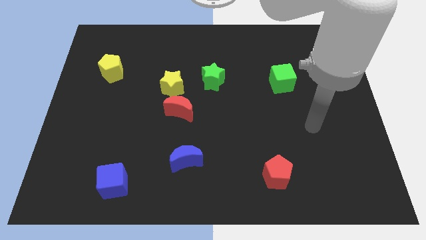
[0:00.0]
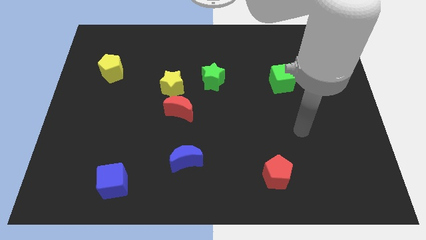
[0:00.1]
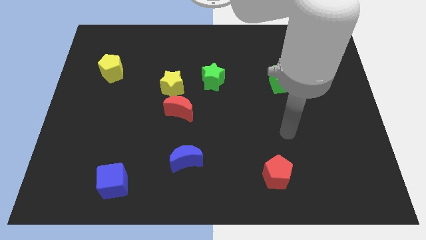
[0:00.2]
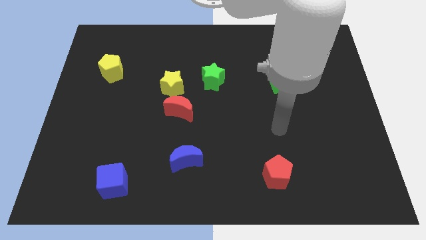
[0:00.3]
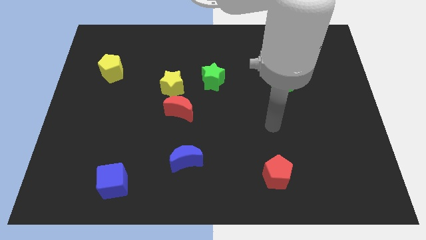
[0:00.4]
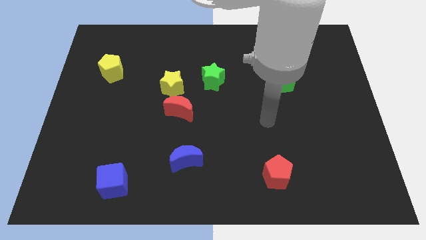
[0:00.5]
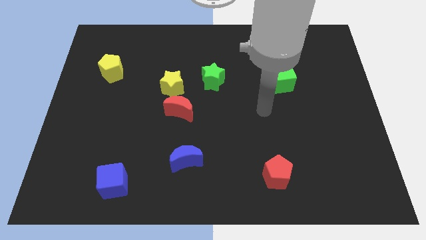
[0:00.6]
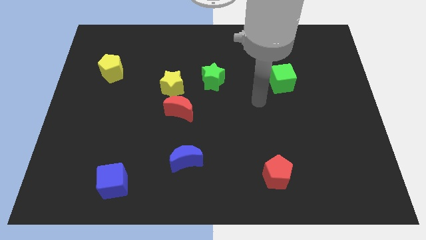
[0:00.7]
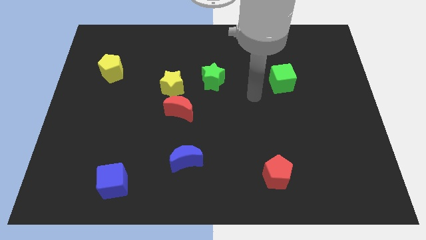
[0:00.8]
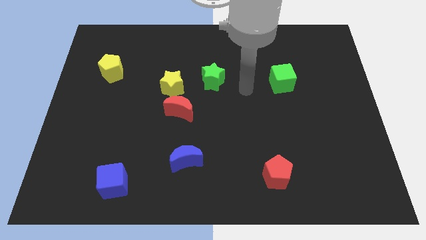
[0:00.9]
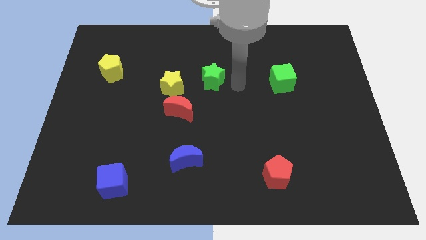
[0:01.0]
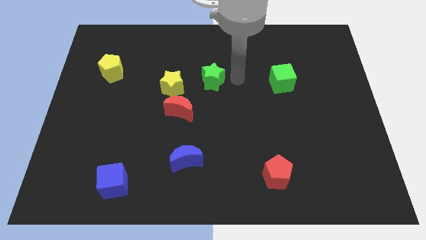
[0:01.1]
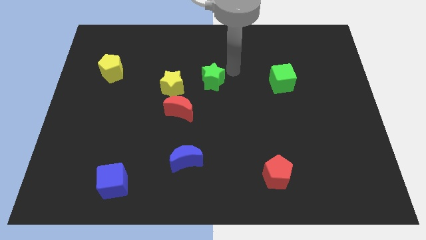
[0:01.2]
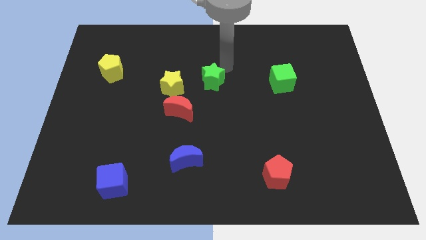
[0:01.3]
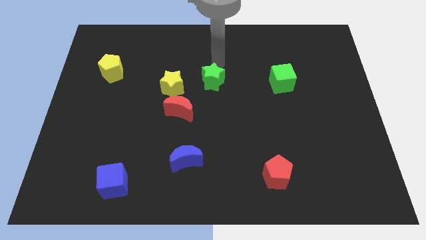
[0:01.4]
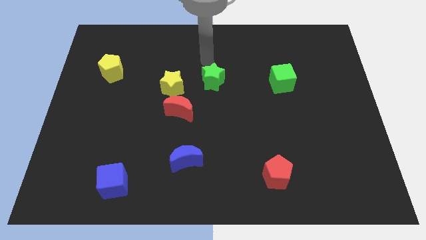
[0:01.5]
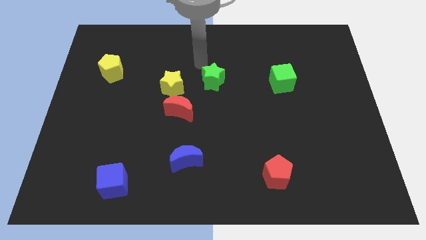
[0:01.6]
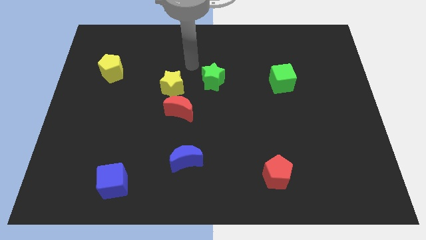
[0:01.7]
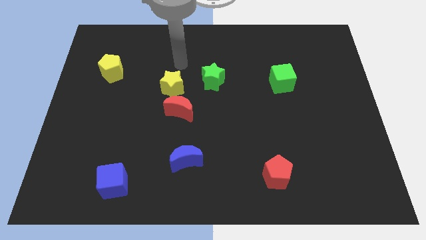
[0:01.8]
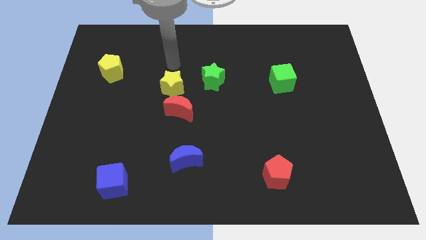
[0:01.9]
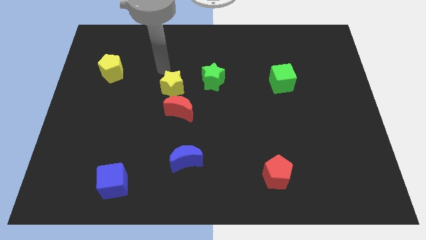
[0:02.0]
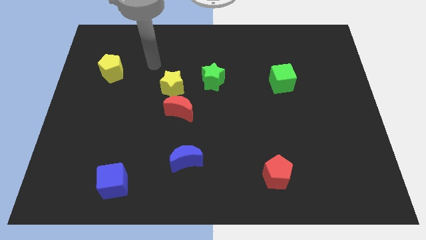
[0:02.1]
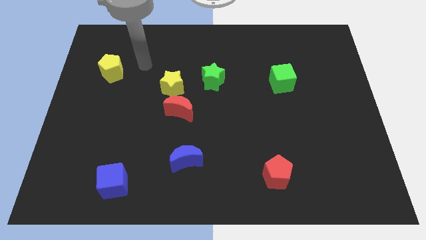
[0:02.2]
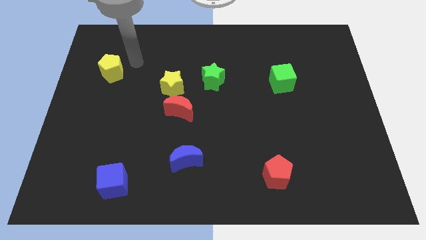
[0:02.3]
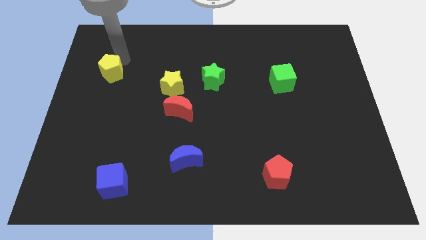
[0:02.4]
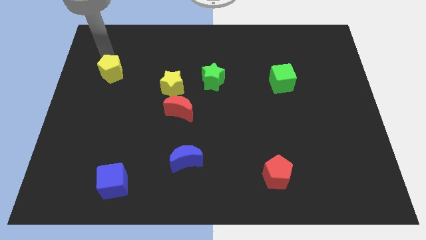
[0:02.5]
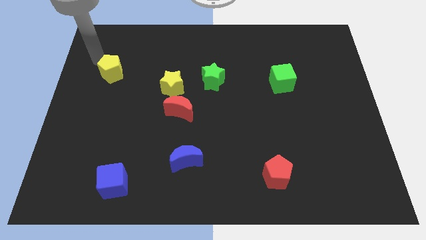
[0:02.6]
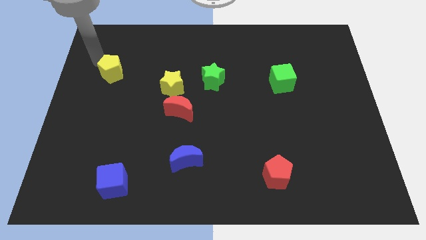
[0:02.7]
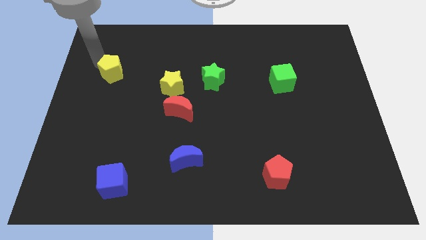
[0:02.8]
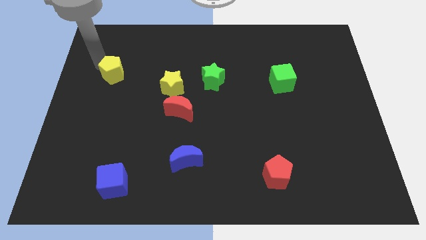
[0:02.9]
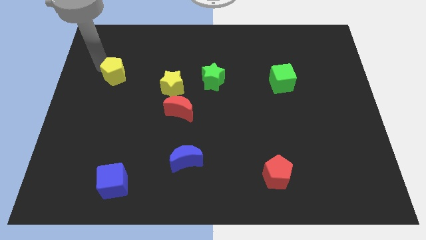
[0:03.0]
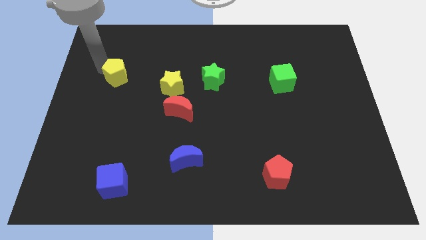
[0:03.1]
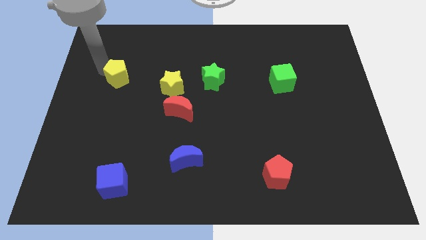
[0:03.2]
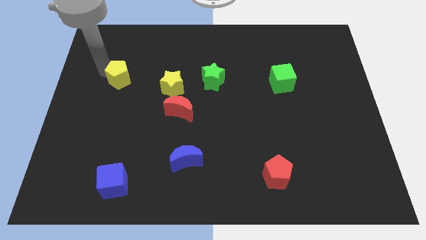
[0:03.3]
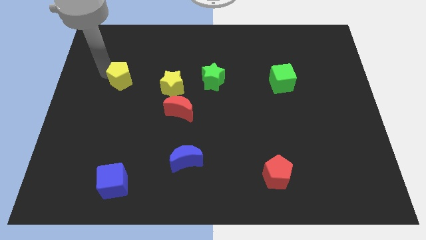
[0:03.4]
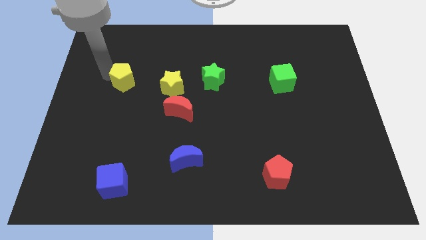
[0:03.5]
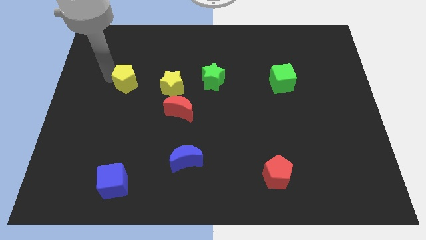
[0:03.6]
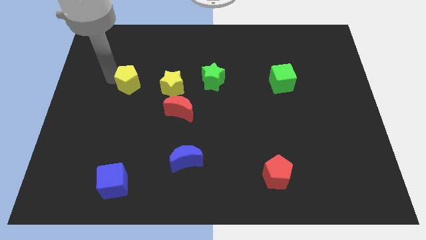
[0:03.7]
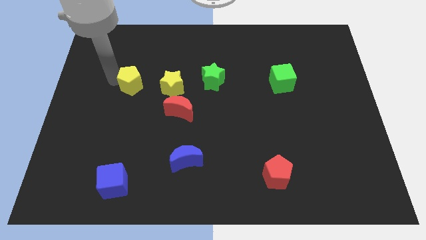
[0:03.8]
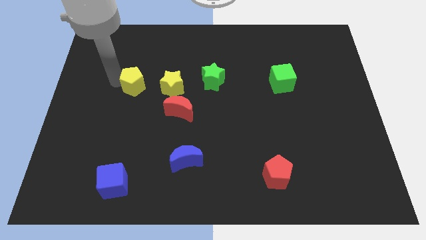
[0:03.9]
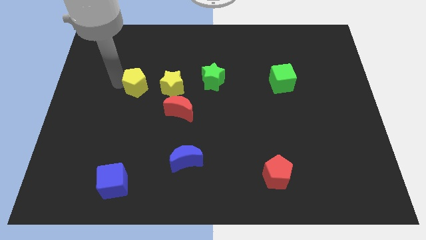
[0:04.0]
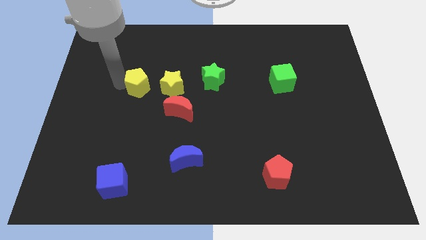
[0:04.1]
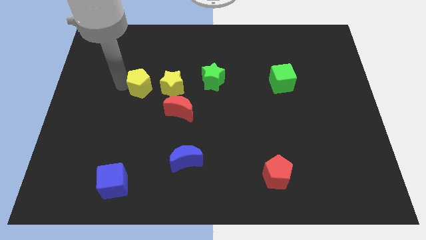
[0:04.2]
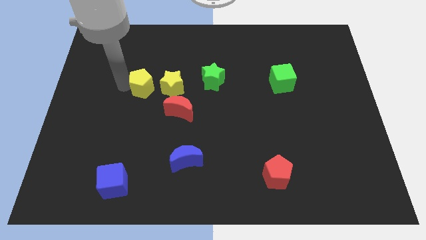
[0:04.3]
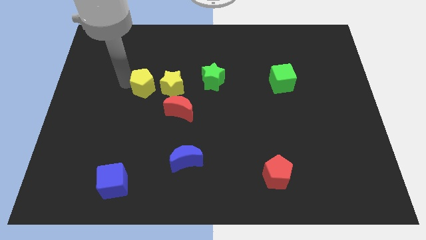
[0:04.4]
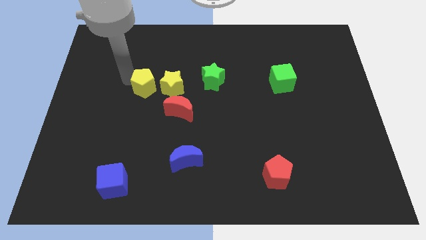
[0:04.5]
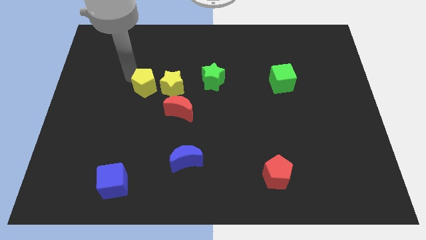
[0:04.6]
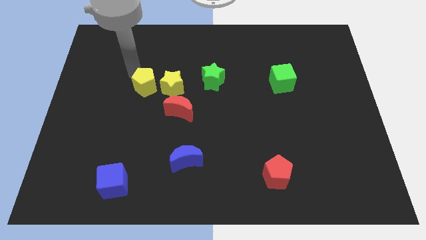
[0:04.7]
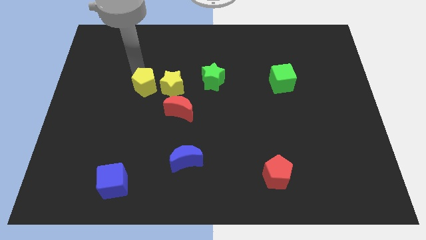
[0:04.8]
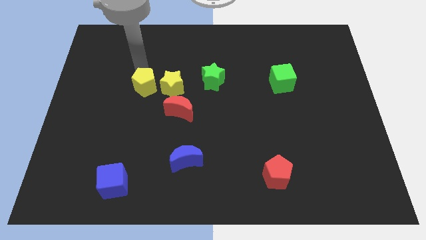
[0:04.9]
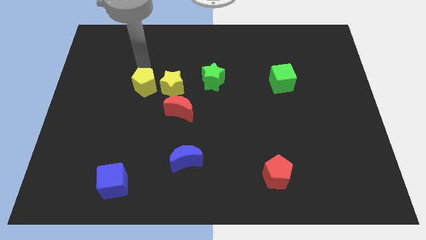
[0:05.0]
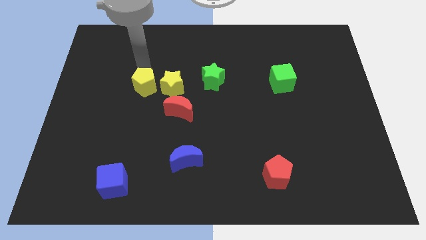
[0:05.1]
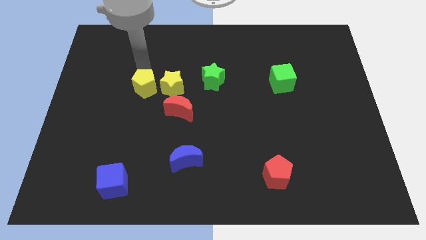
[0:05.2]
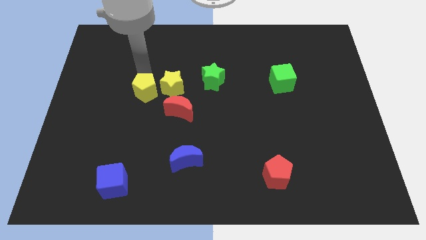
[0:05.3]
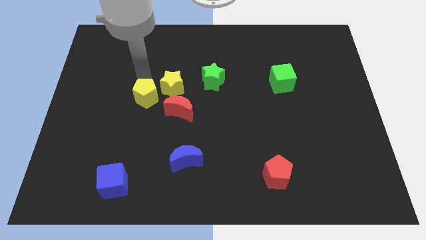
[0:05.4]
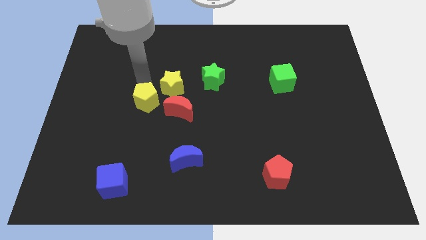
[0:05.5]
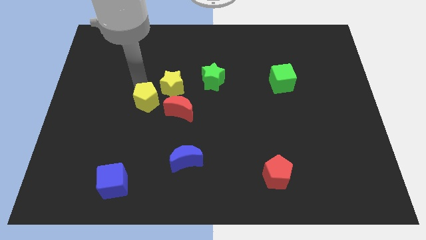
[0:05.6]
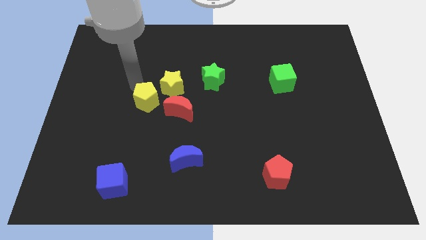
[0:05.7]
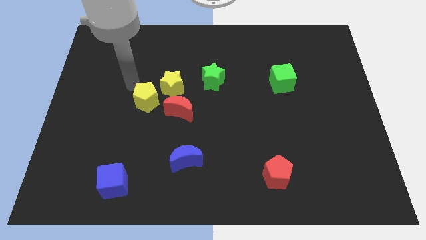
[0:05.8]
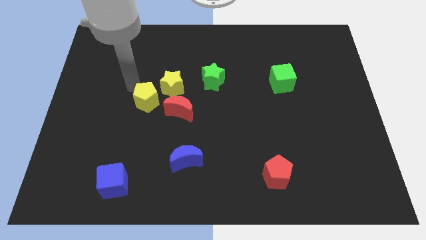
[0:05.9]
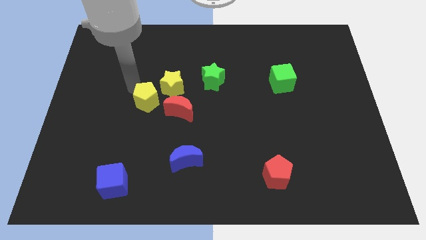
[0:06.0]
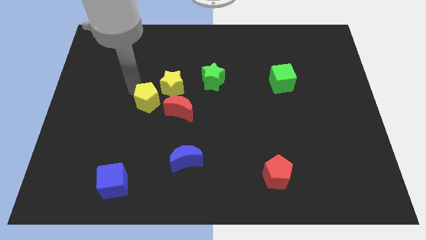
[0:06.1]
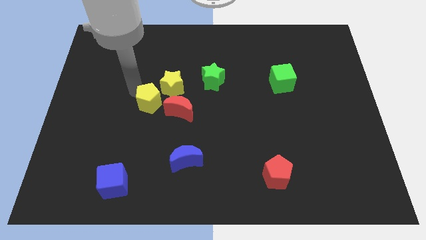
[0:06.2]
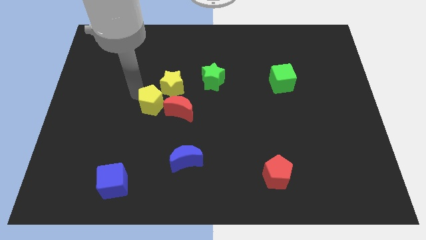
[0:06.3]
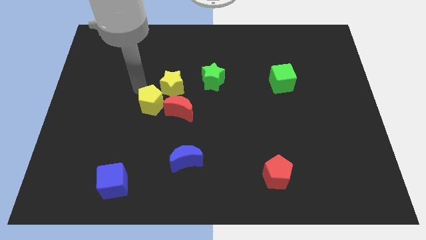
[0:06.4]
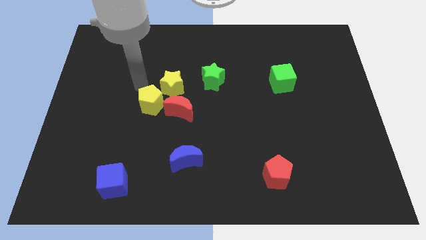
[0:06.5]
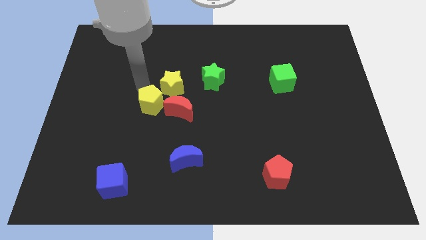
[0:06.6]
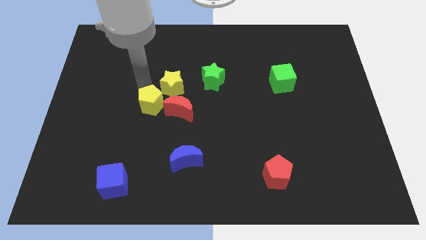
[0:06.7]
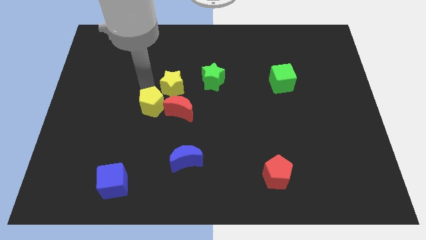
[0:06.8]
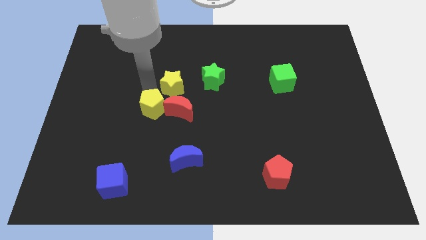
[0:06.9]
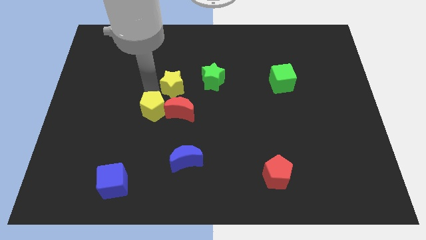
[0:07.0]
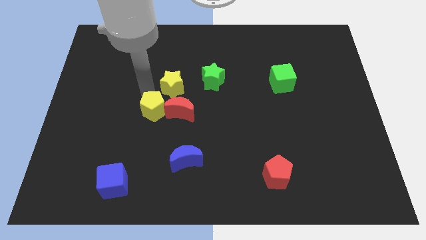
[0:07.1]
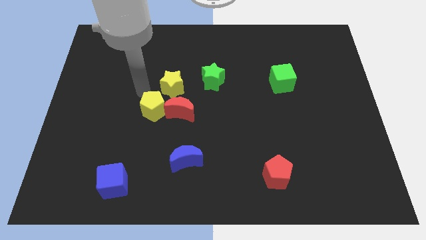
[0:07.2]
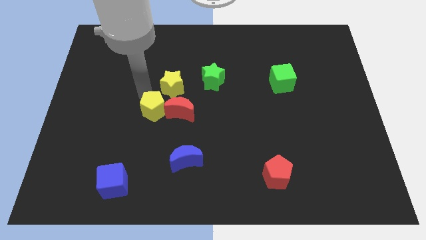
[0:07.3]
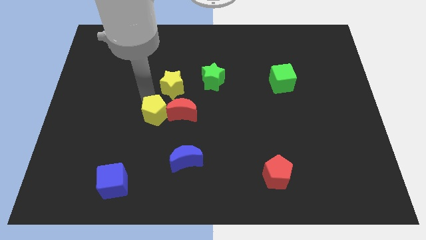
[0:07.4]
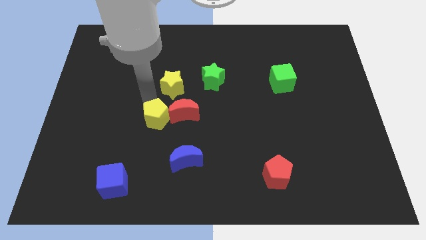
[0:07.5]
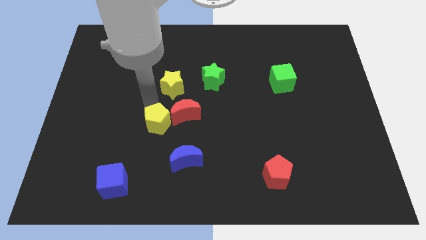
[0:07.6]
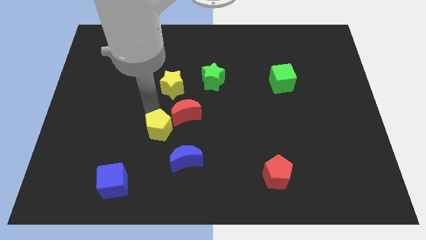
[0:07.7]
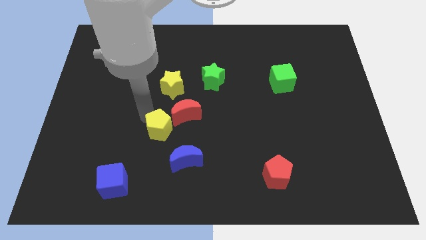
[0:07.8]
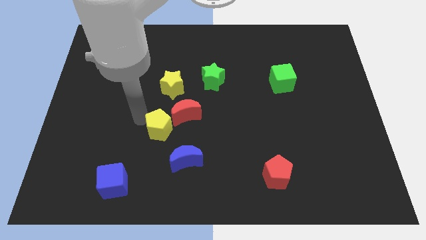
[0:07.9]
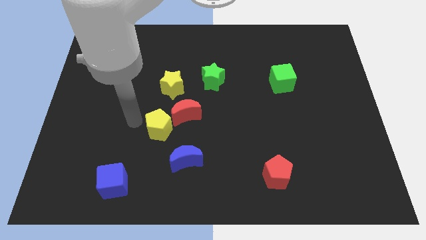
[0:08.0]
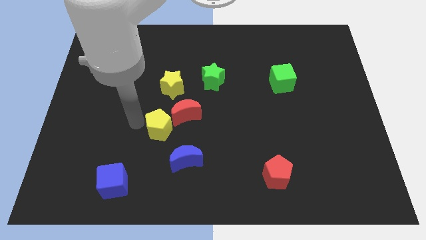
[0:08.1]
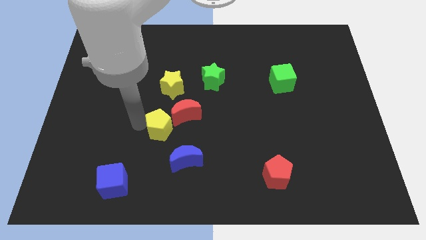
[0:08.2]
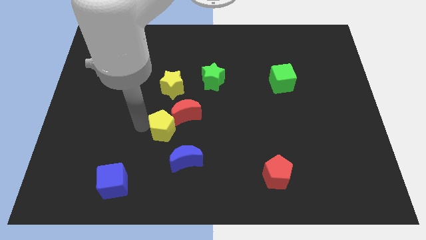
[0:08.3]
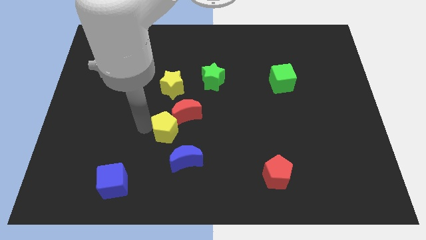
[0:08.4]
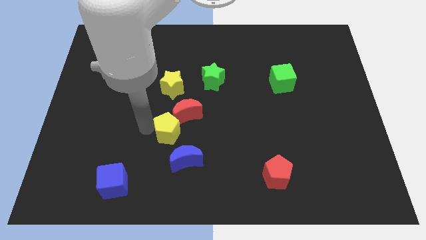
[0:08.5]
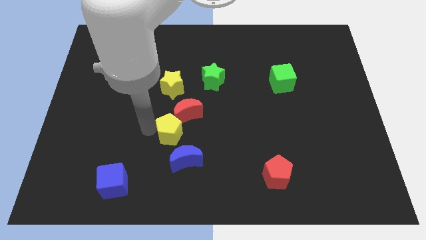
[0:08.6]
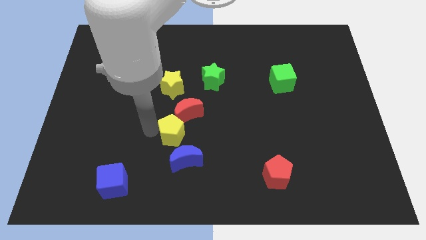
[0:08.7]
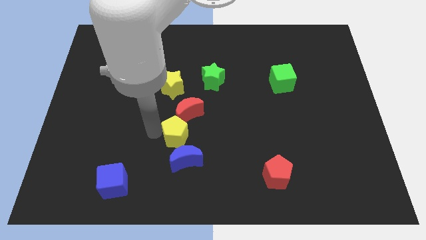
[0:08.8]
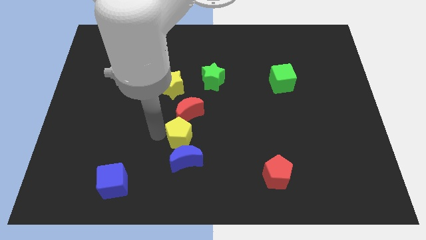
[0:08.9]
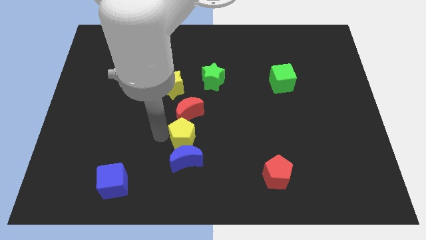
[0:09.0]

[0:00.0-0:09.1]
push the yellow pentagon to the top right of the blue moon
